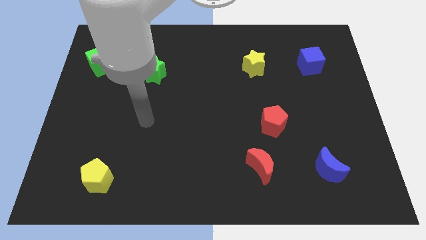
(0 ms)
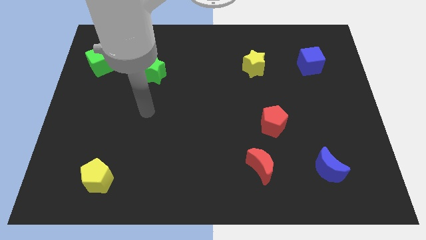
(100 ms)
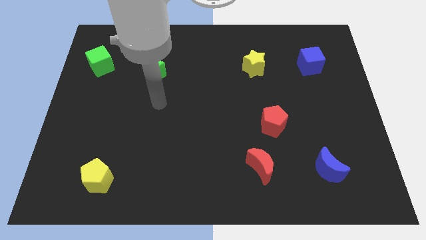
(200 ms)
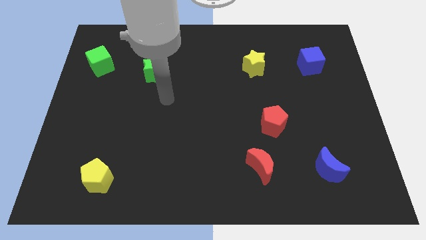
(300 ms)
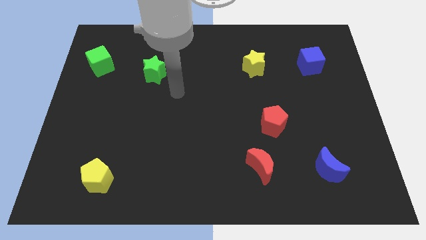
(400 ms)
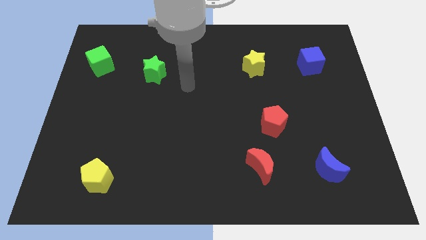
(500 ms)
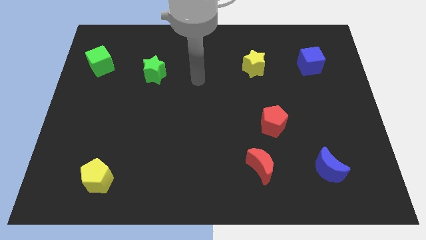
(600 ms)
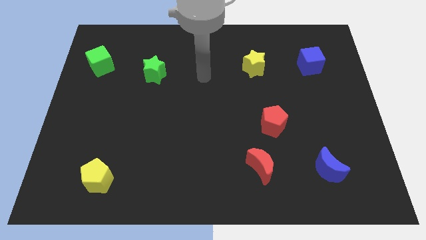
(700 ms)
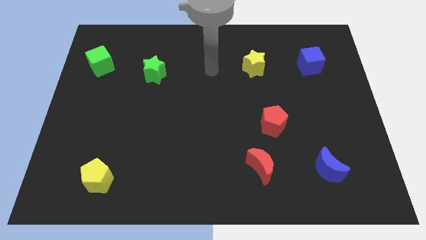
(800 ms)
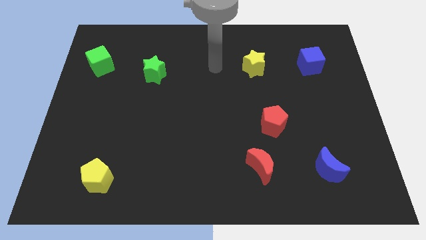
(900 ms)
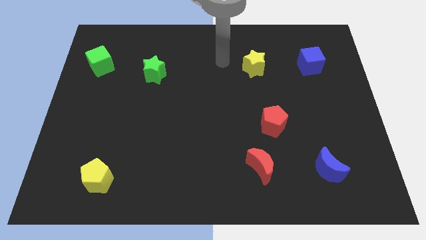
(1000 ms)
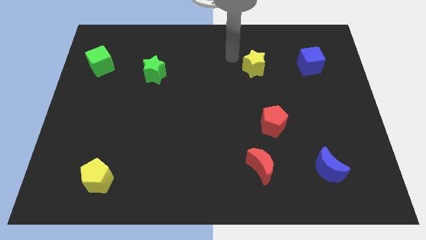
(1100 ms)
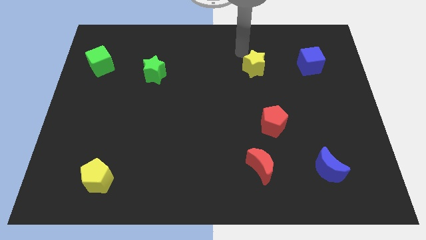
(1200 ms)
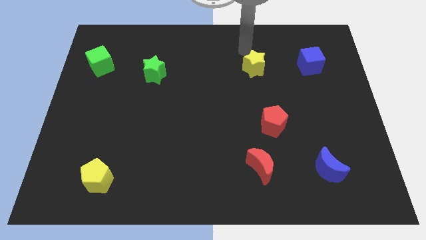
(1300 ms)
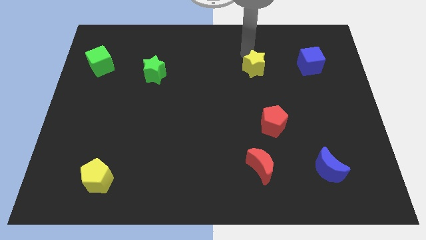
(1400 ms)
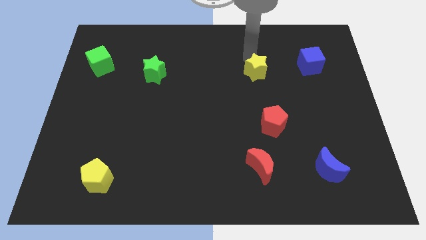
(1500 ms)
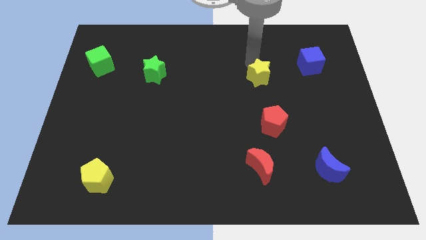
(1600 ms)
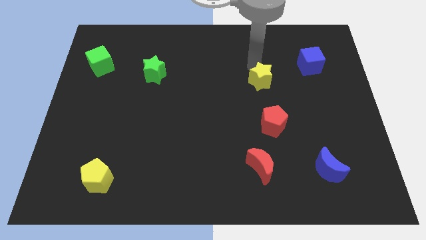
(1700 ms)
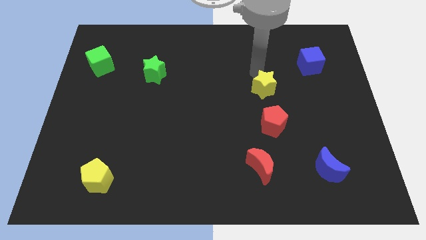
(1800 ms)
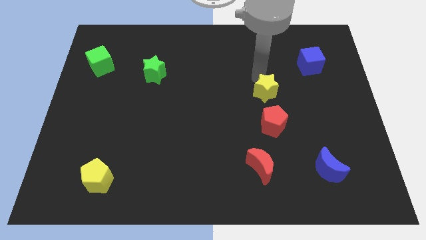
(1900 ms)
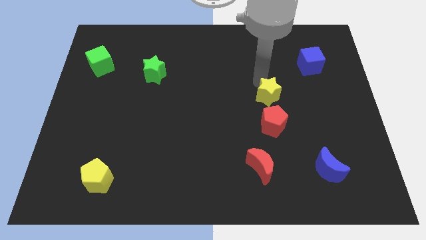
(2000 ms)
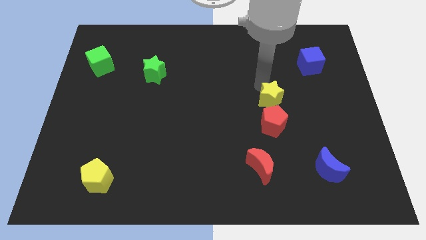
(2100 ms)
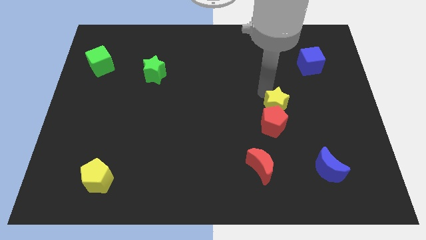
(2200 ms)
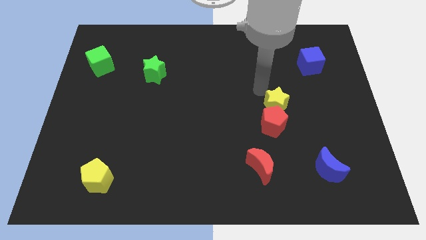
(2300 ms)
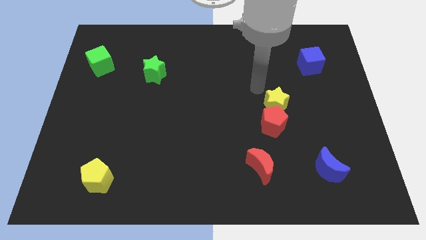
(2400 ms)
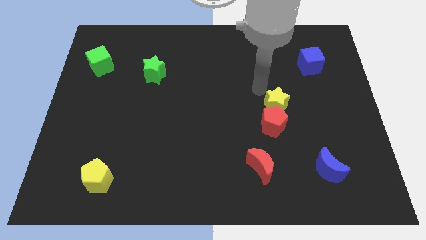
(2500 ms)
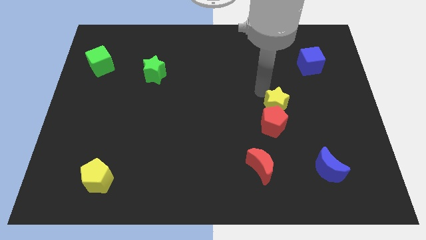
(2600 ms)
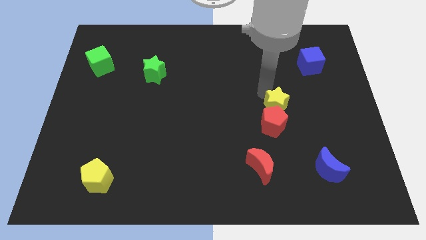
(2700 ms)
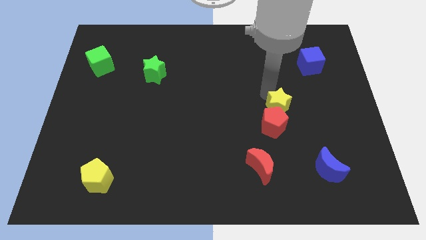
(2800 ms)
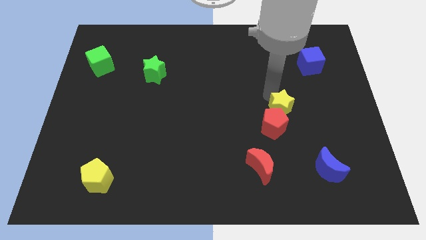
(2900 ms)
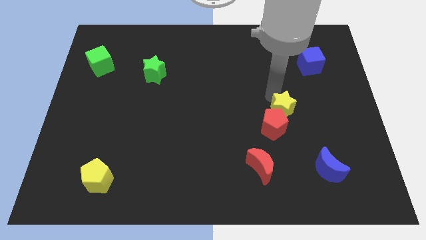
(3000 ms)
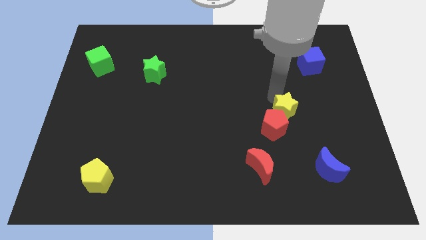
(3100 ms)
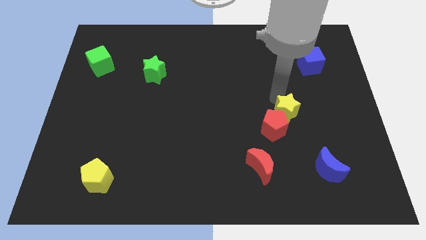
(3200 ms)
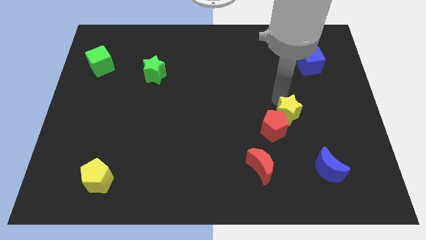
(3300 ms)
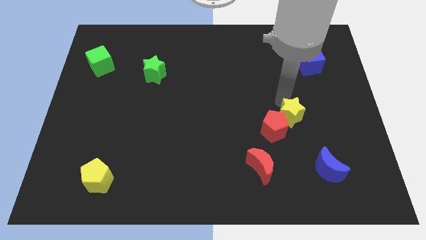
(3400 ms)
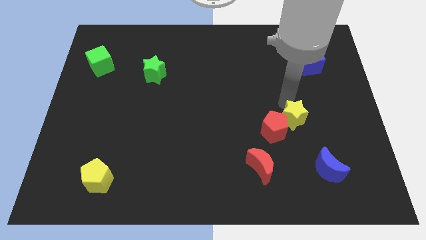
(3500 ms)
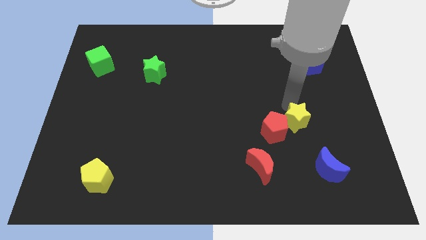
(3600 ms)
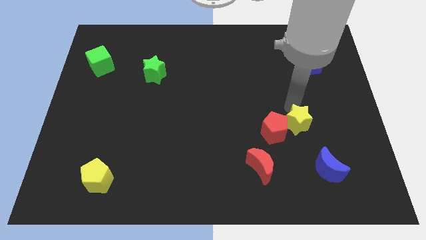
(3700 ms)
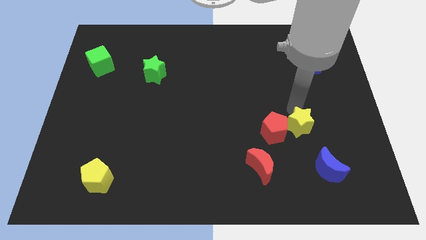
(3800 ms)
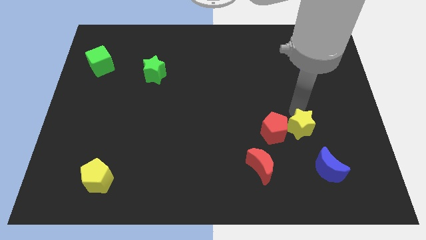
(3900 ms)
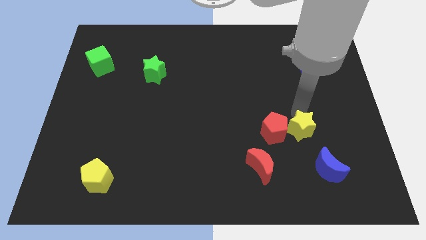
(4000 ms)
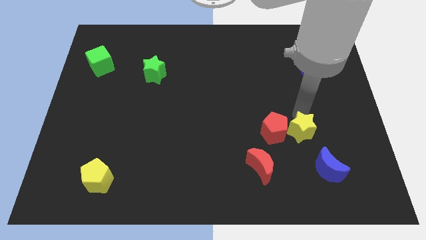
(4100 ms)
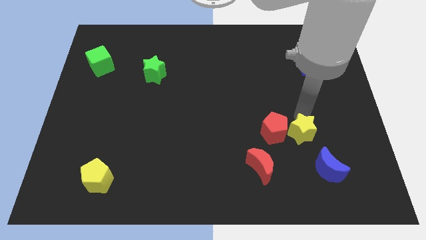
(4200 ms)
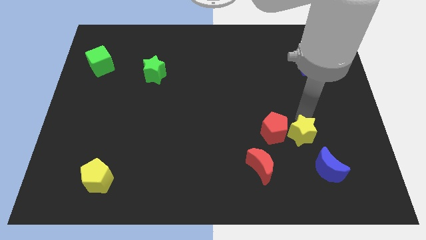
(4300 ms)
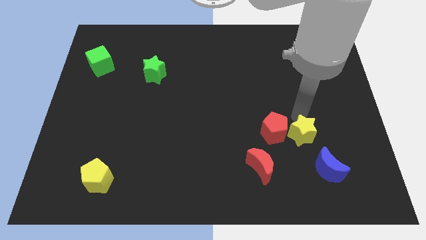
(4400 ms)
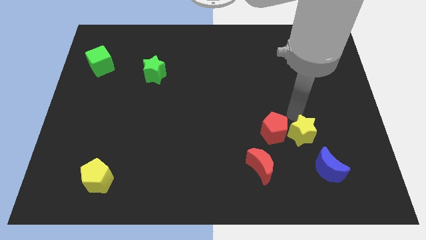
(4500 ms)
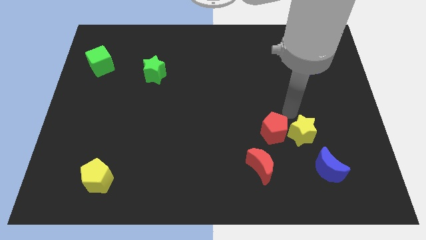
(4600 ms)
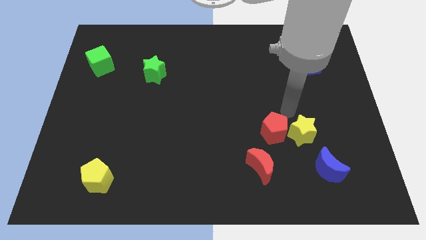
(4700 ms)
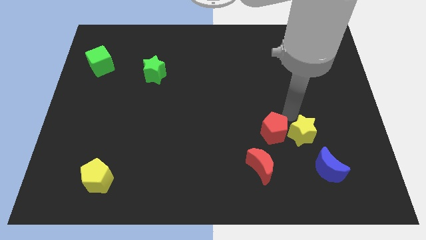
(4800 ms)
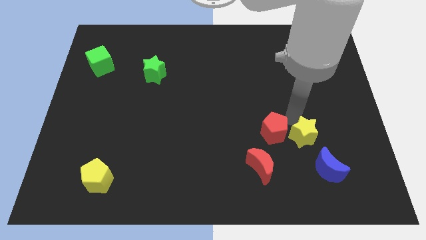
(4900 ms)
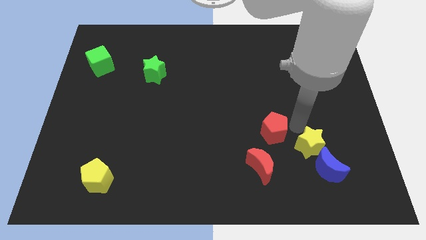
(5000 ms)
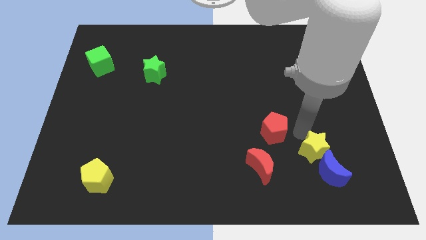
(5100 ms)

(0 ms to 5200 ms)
move the yellow star next to the blue moon

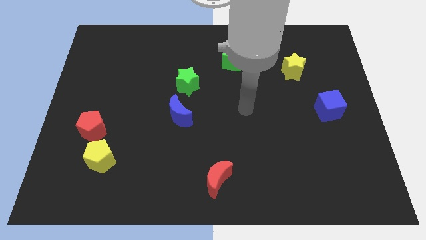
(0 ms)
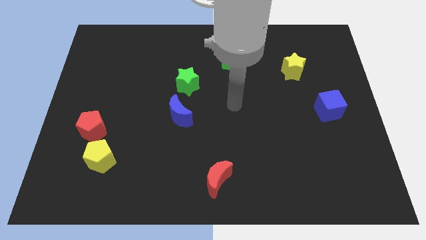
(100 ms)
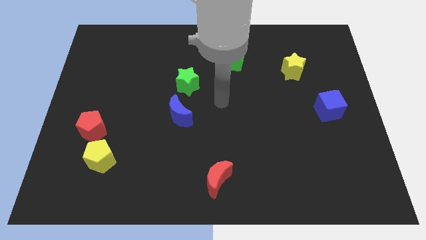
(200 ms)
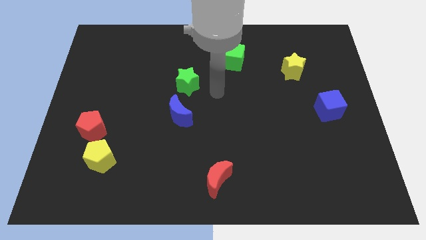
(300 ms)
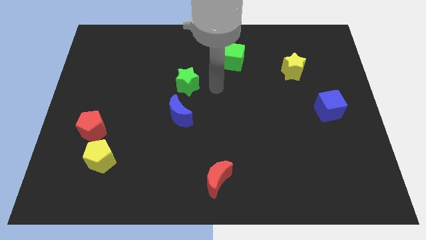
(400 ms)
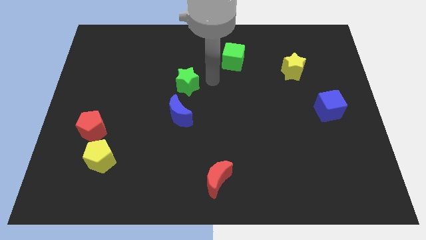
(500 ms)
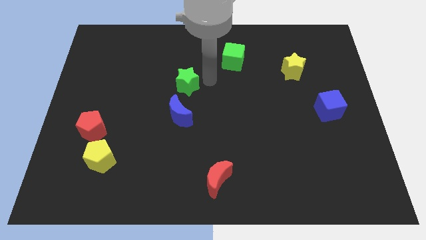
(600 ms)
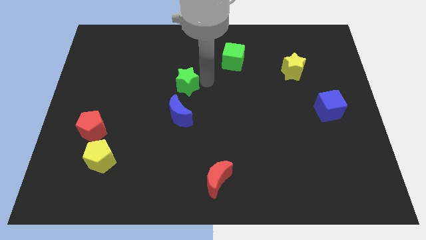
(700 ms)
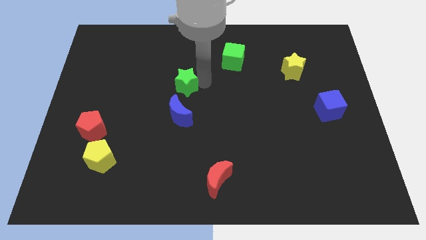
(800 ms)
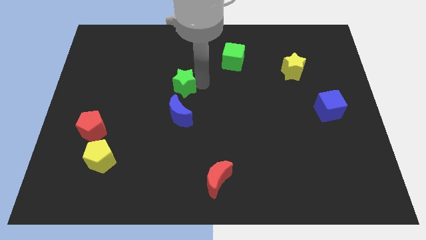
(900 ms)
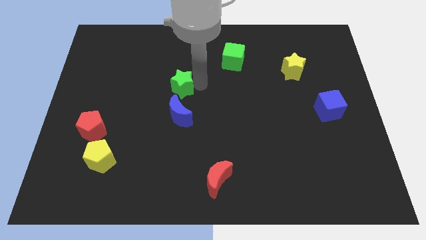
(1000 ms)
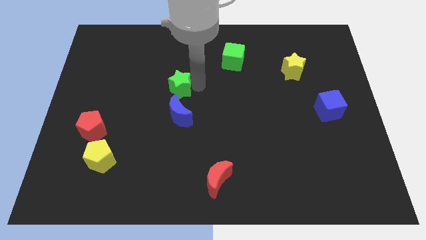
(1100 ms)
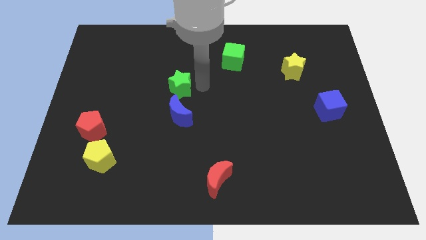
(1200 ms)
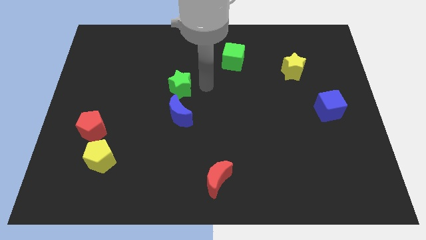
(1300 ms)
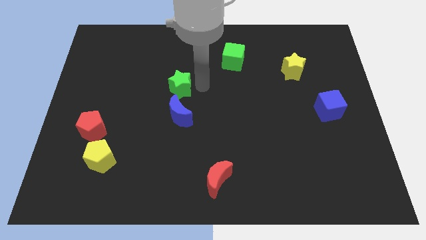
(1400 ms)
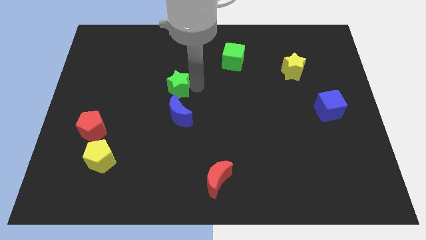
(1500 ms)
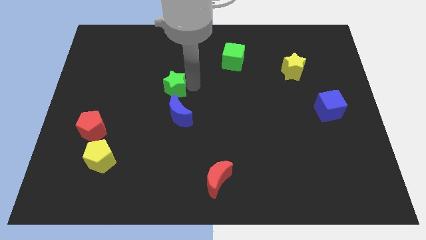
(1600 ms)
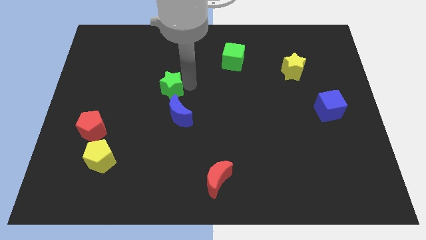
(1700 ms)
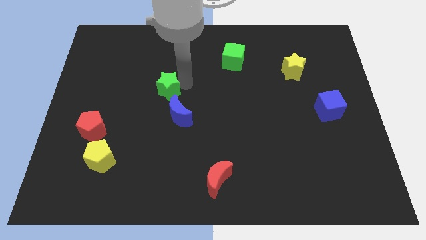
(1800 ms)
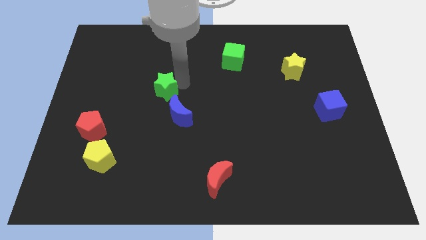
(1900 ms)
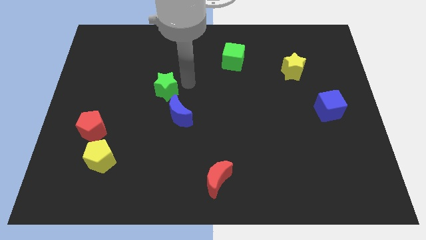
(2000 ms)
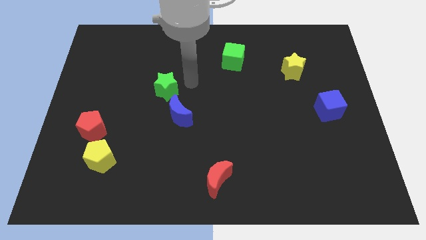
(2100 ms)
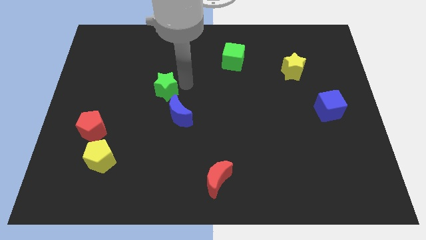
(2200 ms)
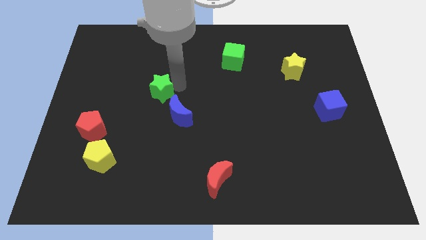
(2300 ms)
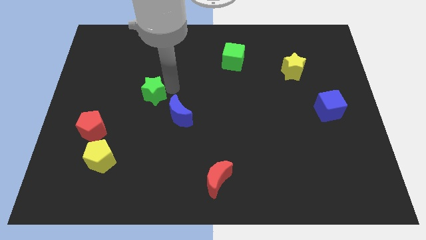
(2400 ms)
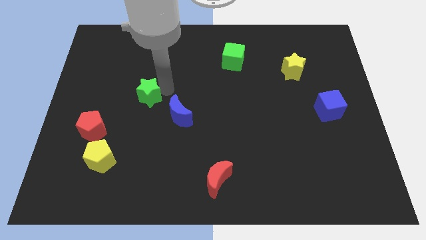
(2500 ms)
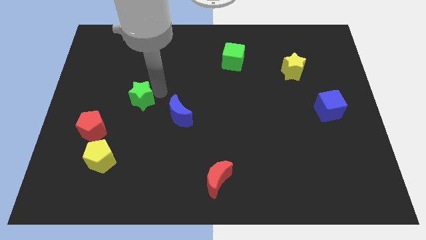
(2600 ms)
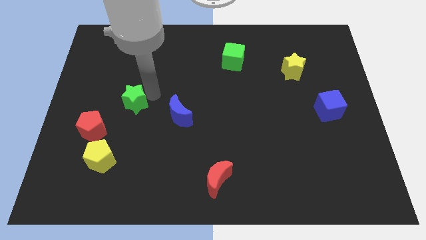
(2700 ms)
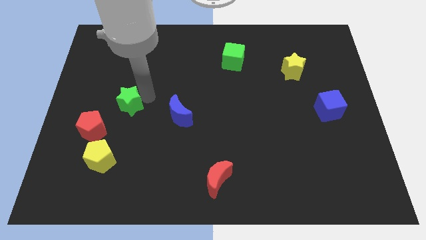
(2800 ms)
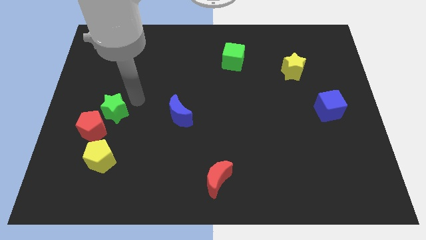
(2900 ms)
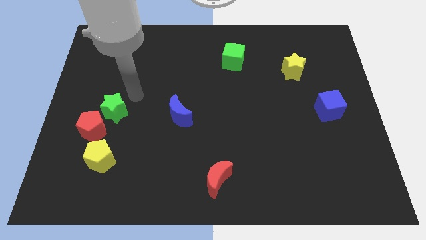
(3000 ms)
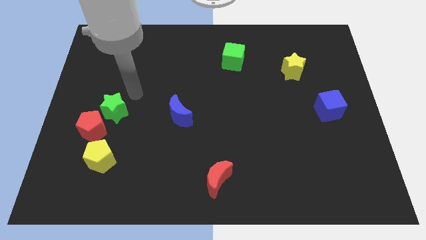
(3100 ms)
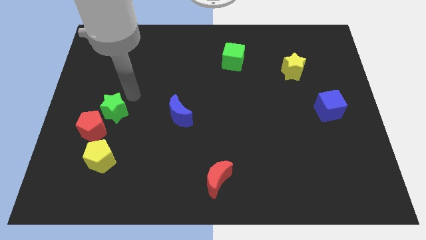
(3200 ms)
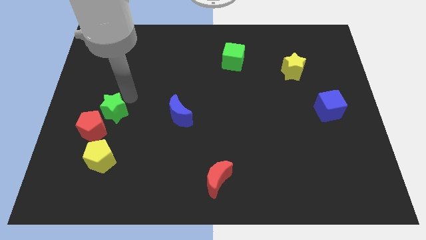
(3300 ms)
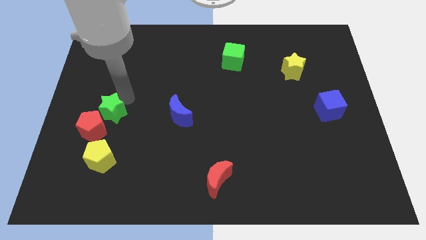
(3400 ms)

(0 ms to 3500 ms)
move the green star to the red pentagon
